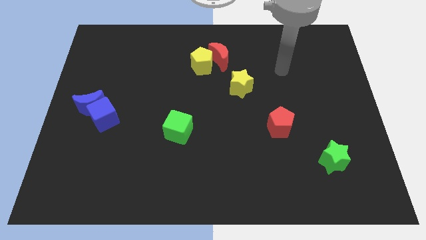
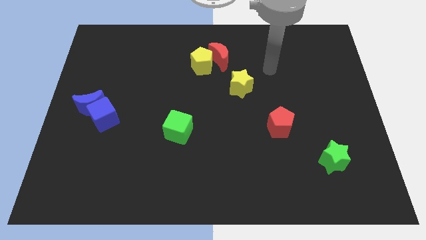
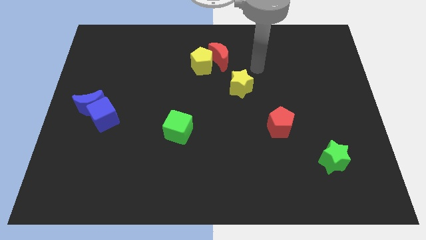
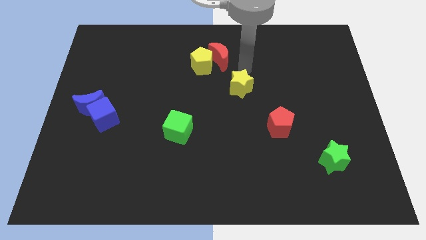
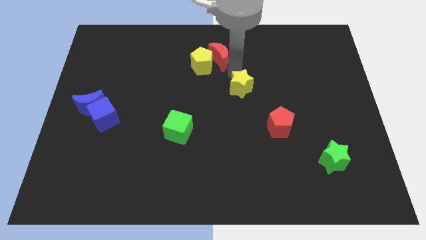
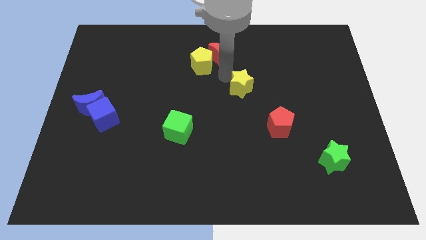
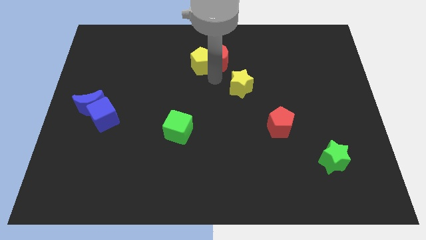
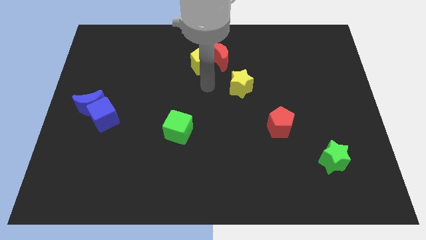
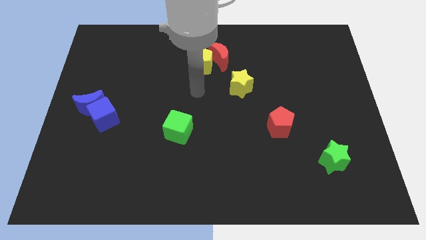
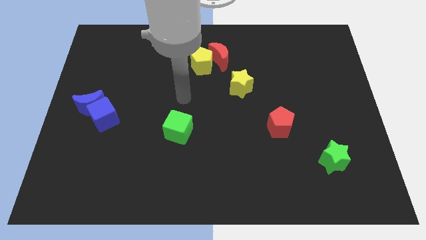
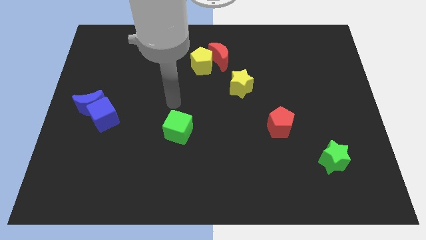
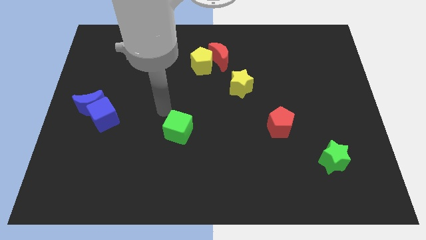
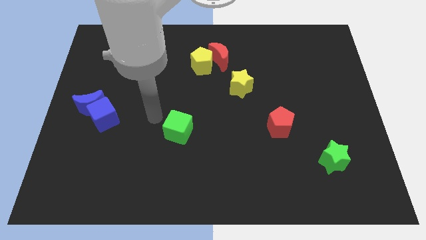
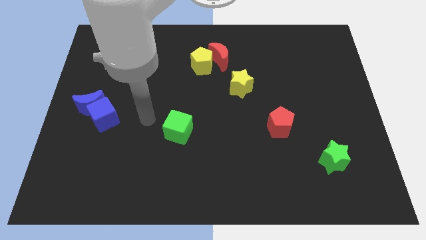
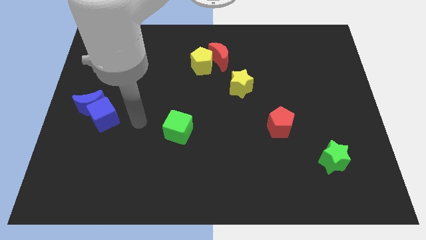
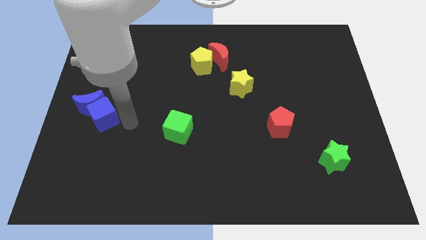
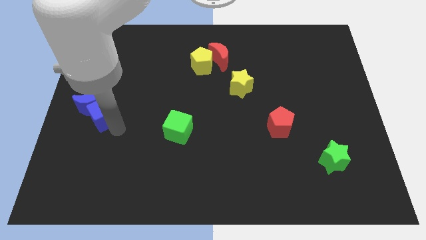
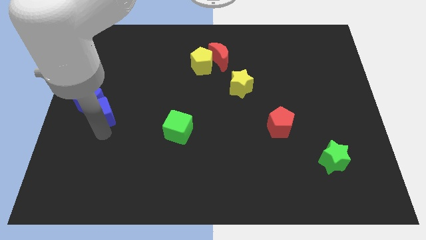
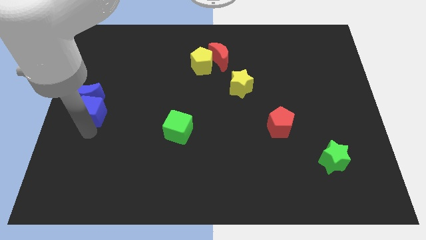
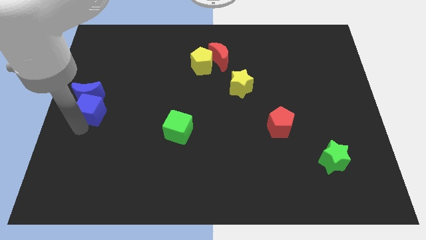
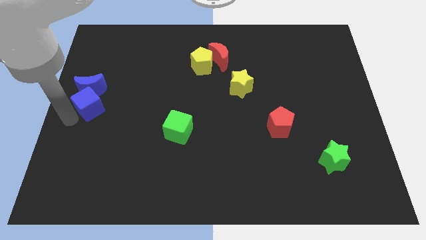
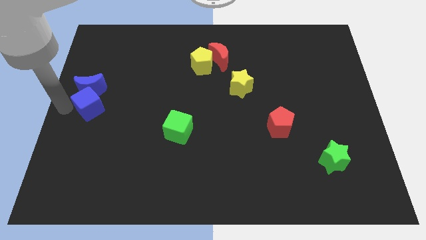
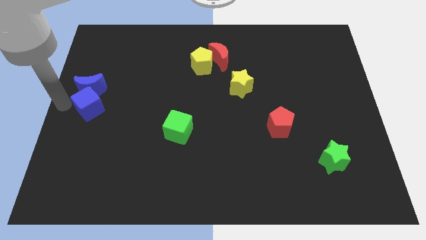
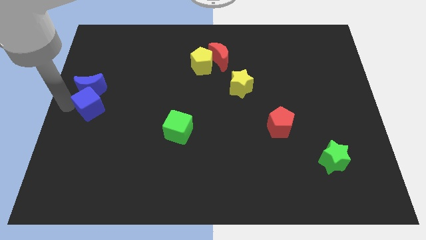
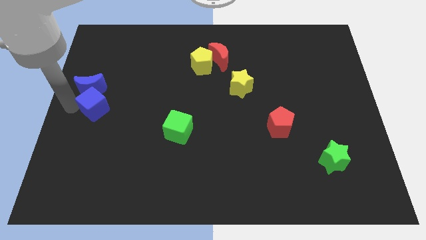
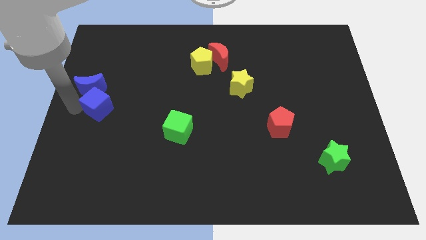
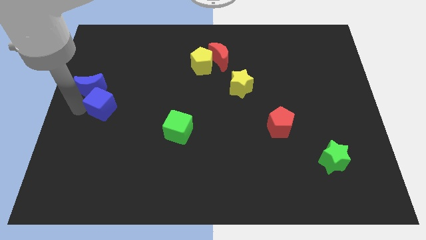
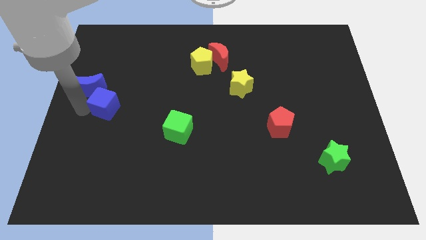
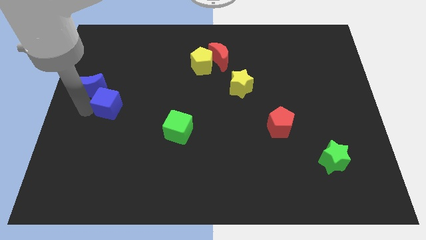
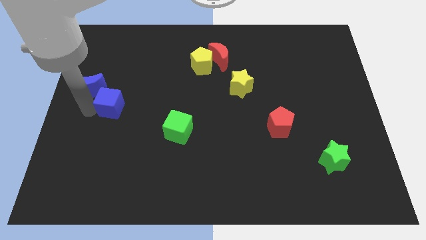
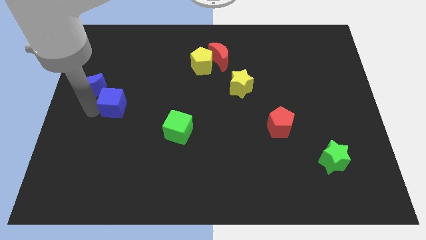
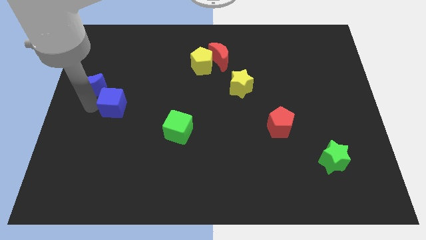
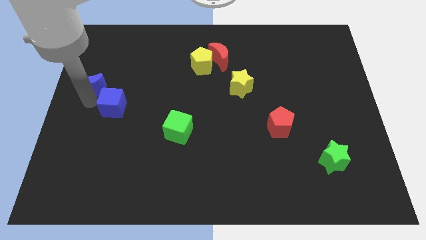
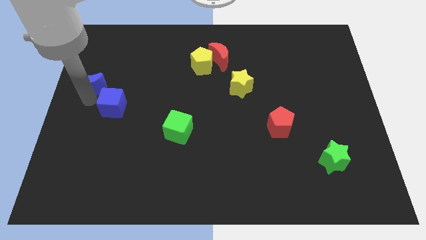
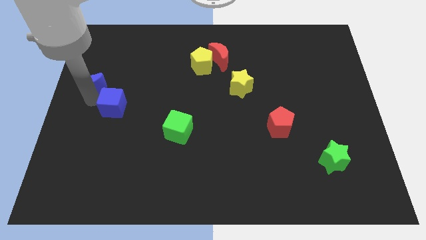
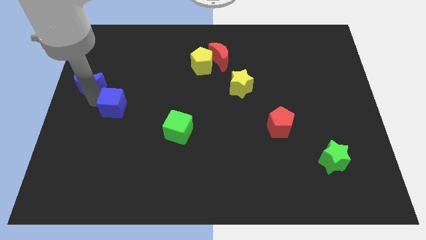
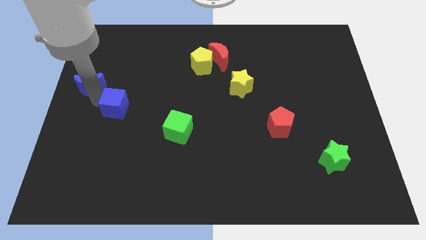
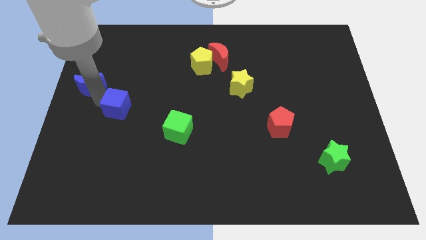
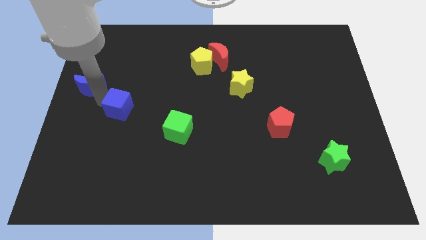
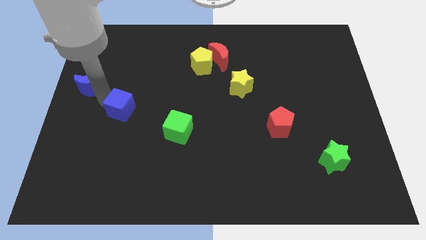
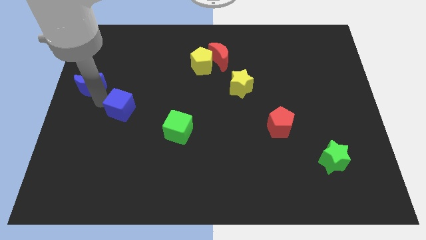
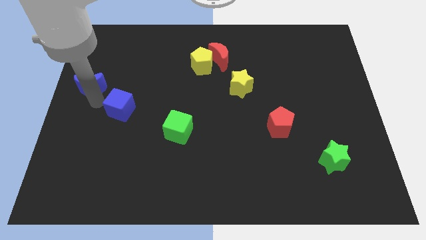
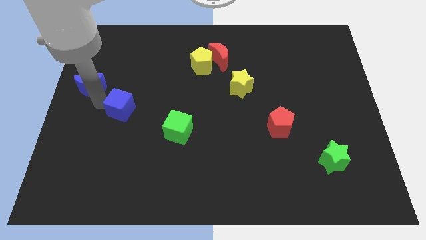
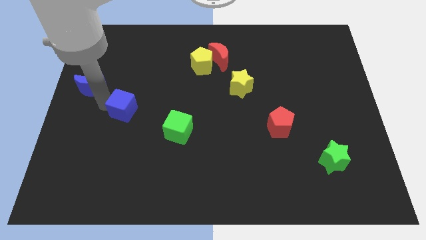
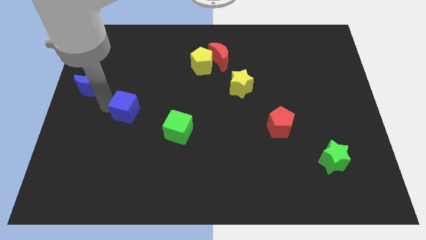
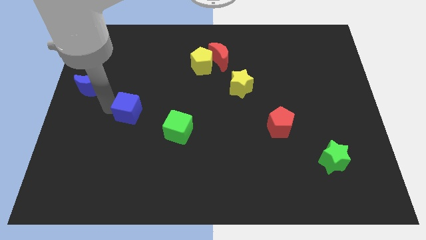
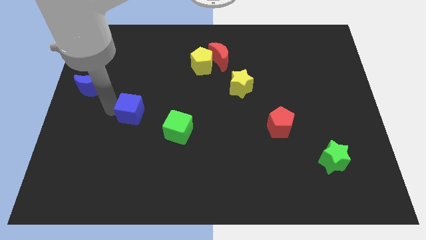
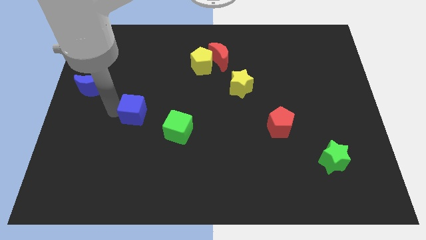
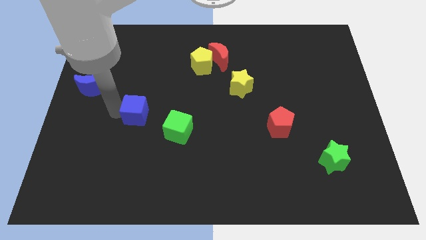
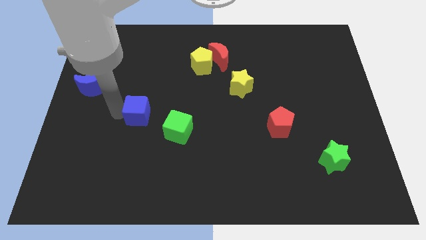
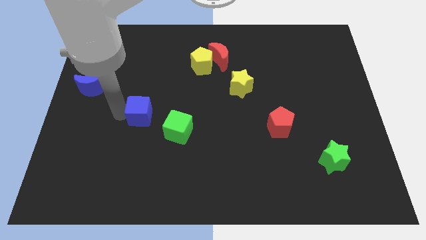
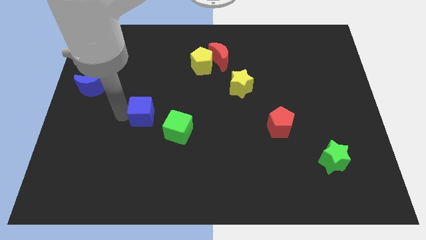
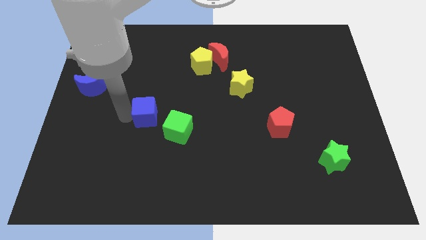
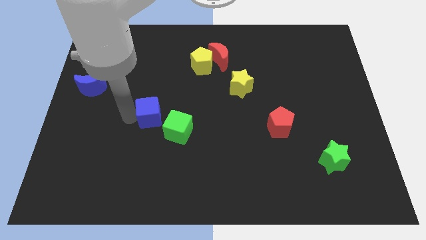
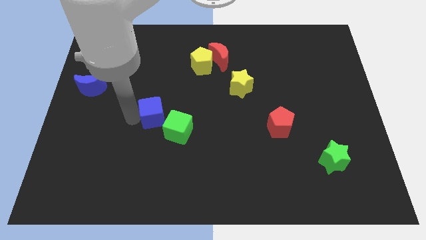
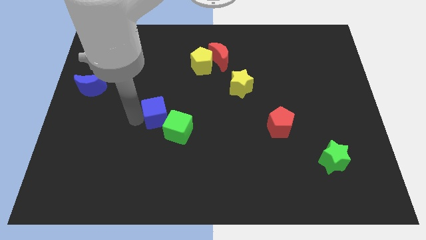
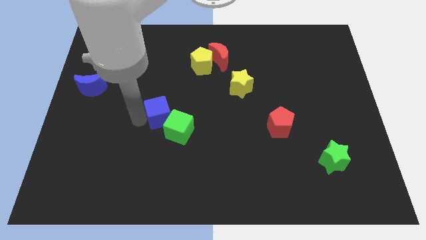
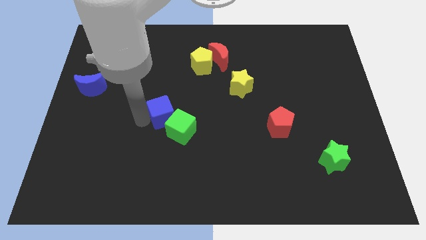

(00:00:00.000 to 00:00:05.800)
push the blue cube to the center of the board
